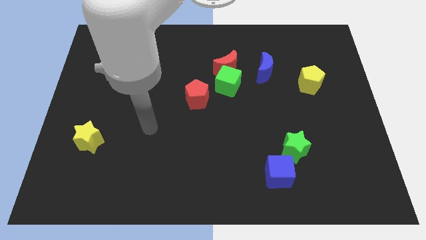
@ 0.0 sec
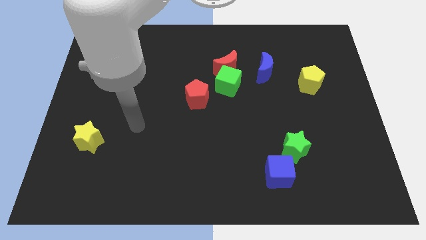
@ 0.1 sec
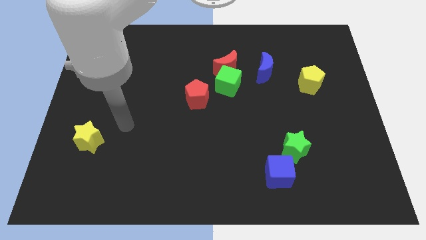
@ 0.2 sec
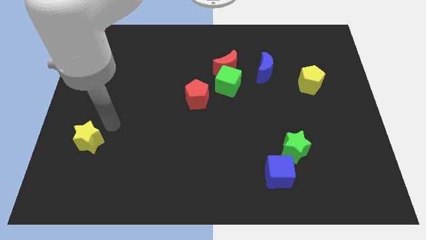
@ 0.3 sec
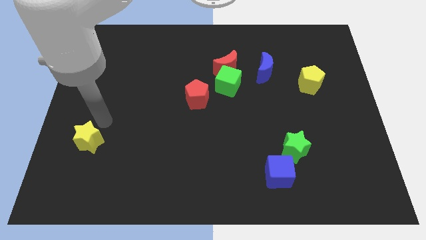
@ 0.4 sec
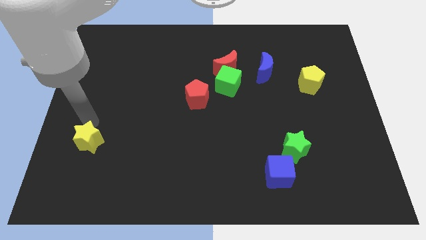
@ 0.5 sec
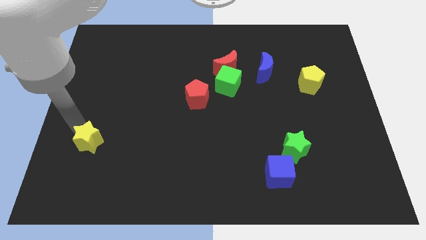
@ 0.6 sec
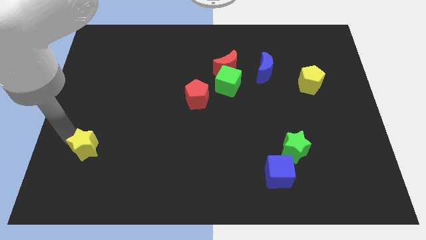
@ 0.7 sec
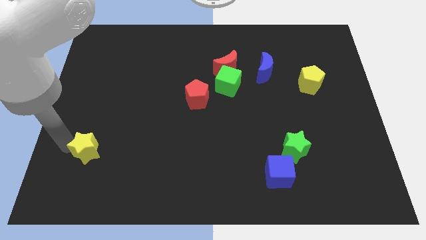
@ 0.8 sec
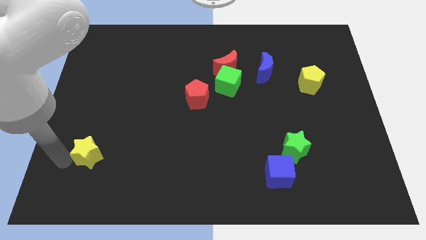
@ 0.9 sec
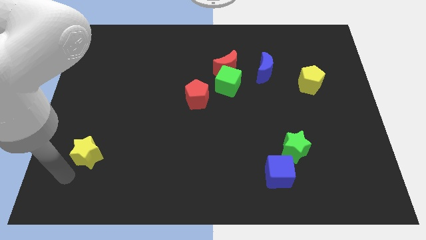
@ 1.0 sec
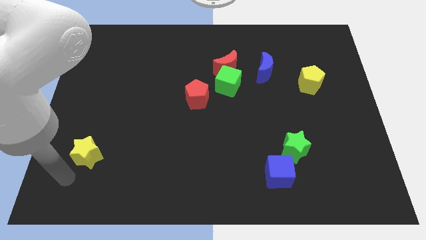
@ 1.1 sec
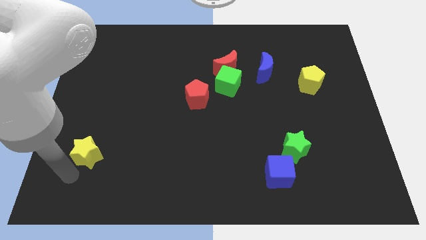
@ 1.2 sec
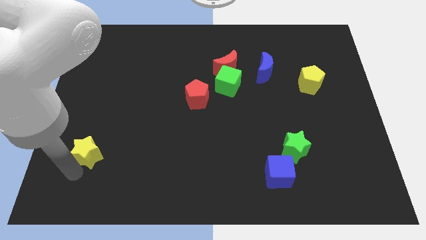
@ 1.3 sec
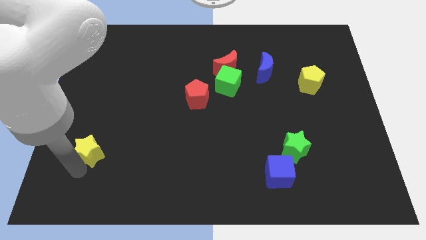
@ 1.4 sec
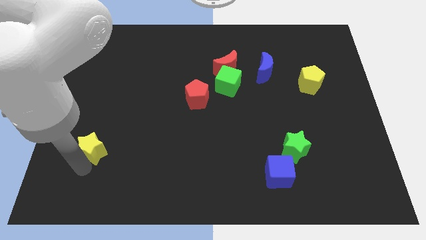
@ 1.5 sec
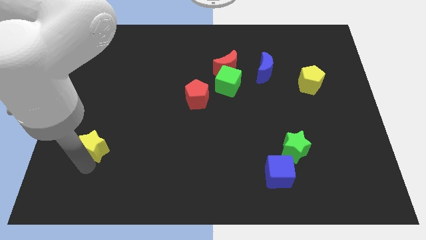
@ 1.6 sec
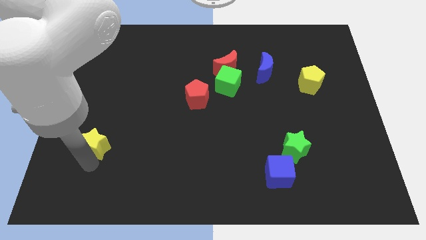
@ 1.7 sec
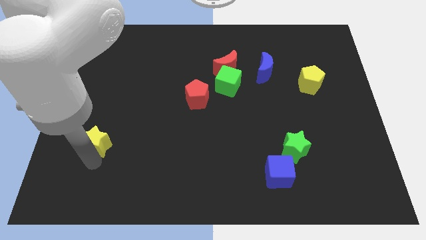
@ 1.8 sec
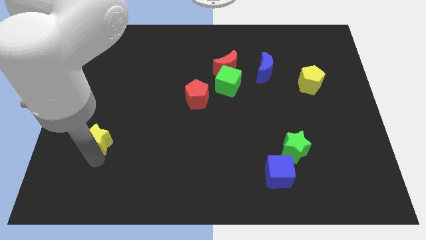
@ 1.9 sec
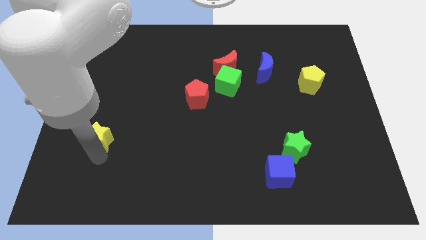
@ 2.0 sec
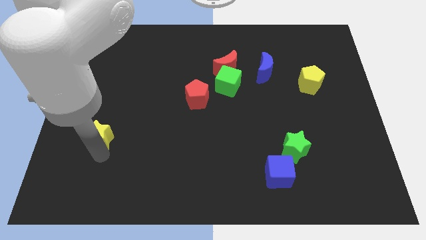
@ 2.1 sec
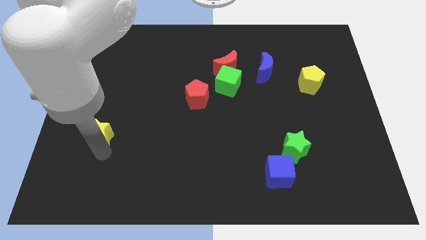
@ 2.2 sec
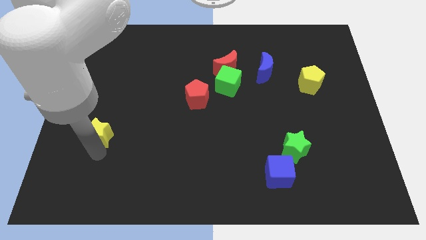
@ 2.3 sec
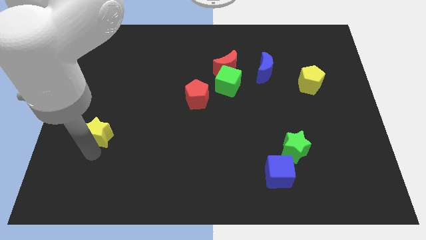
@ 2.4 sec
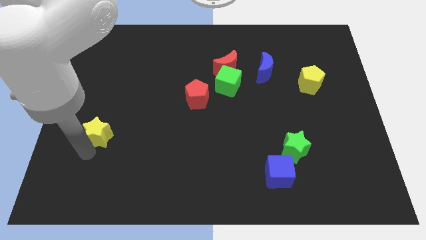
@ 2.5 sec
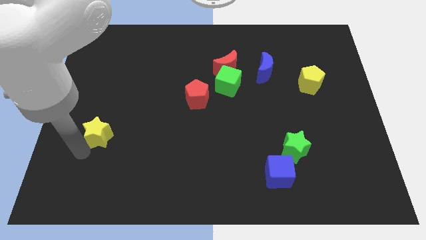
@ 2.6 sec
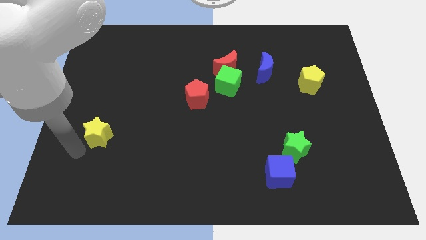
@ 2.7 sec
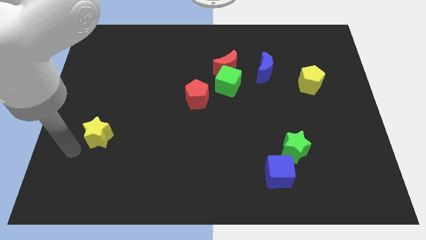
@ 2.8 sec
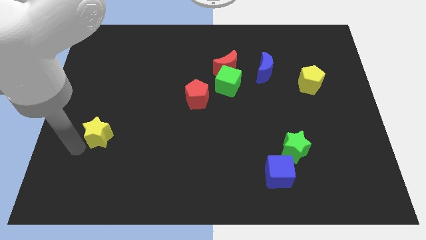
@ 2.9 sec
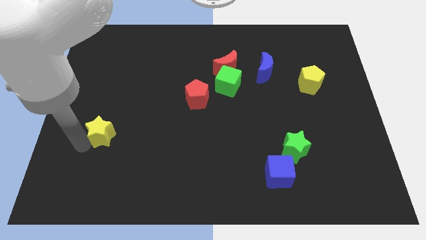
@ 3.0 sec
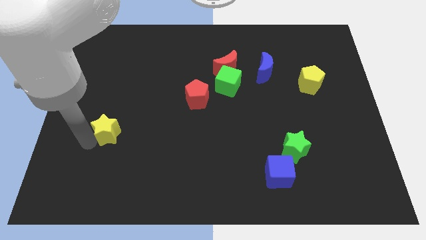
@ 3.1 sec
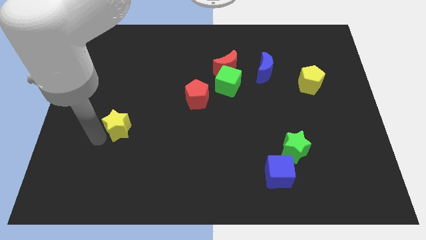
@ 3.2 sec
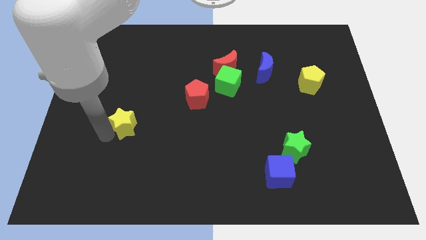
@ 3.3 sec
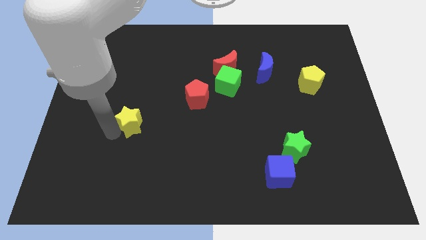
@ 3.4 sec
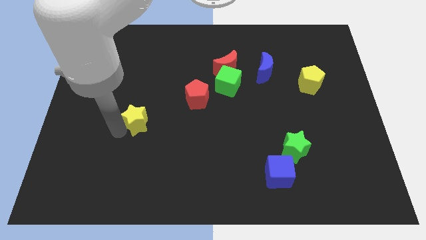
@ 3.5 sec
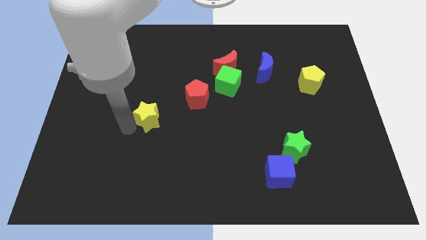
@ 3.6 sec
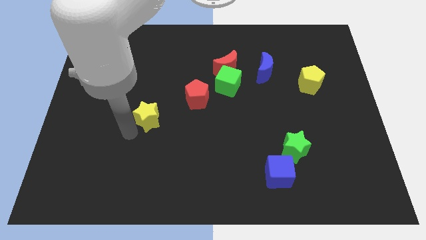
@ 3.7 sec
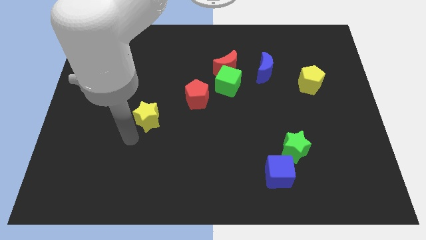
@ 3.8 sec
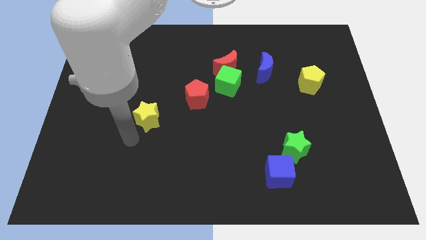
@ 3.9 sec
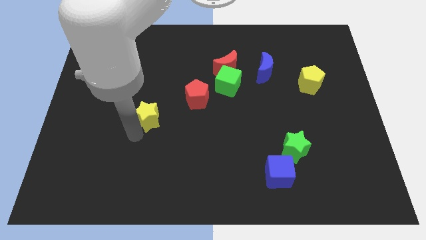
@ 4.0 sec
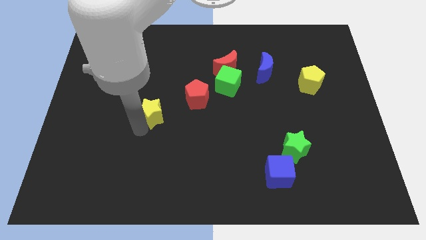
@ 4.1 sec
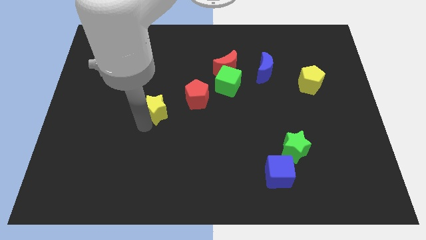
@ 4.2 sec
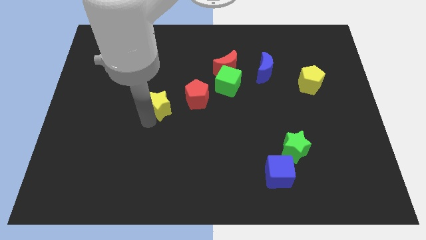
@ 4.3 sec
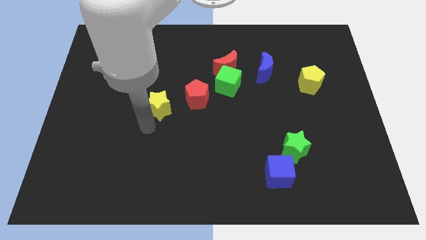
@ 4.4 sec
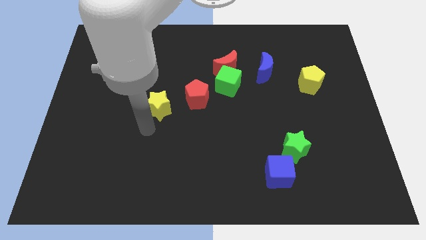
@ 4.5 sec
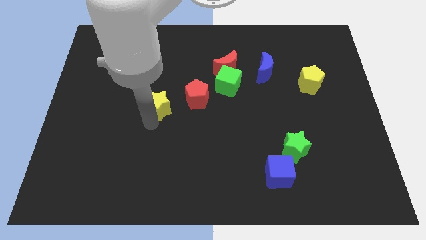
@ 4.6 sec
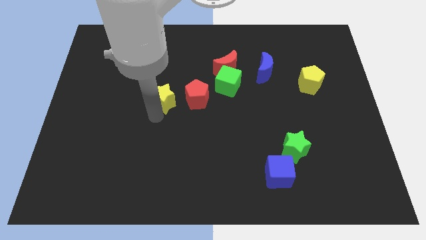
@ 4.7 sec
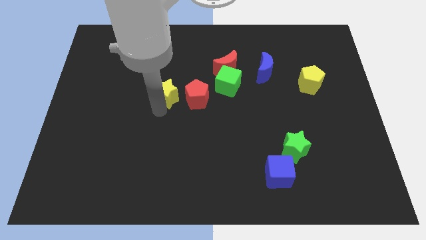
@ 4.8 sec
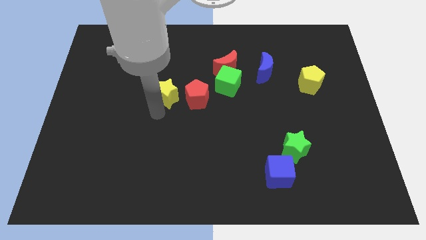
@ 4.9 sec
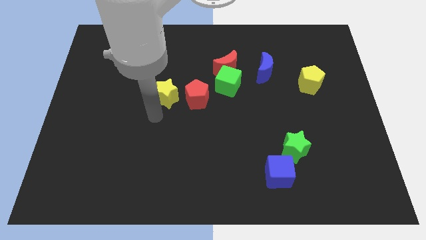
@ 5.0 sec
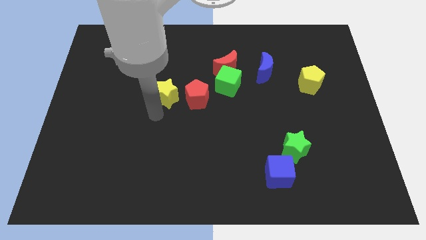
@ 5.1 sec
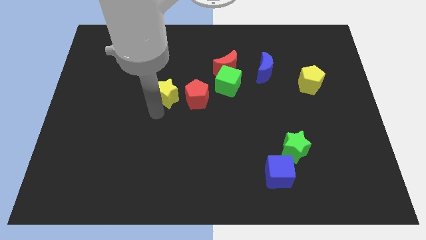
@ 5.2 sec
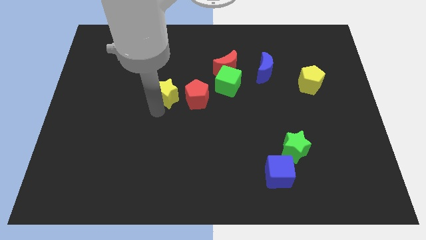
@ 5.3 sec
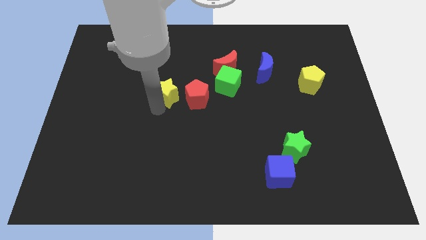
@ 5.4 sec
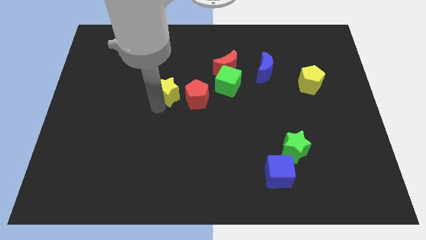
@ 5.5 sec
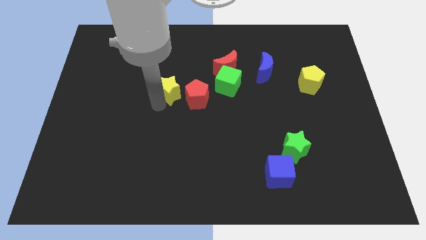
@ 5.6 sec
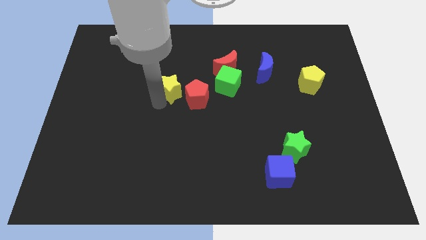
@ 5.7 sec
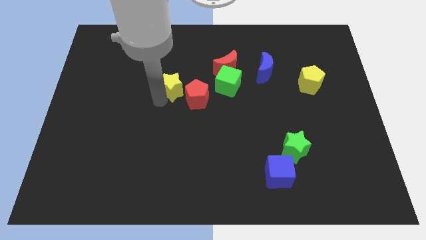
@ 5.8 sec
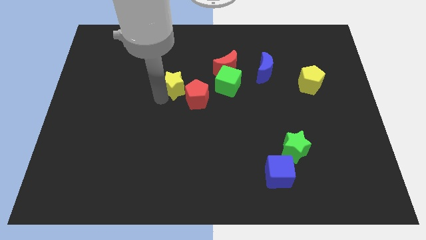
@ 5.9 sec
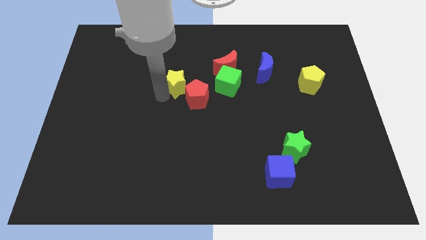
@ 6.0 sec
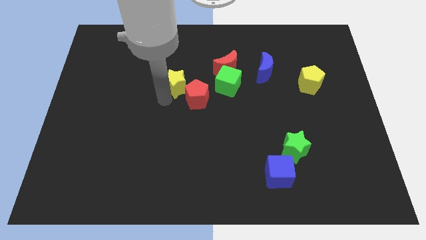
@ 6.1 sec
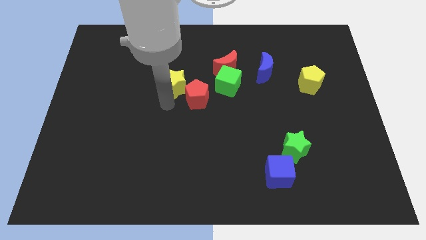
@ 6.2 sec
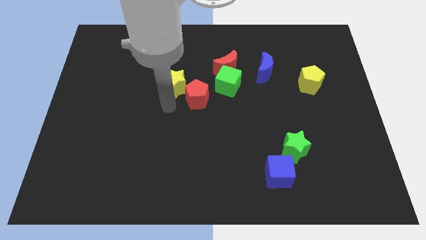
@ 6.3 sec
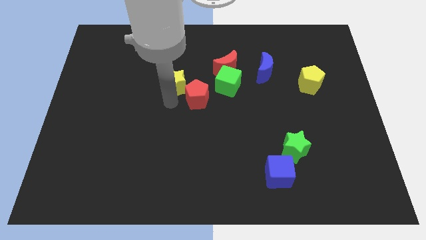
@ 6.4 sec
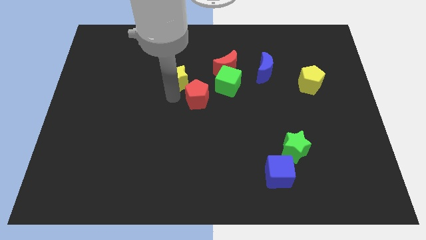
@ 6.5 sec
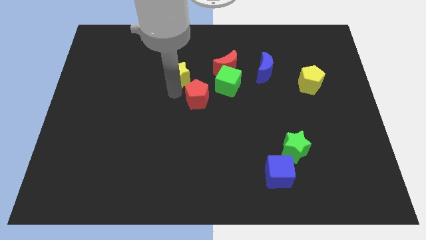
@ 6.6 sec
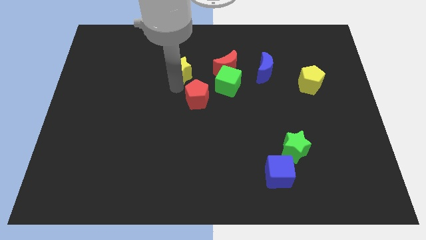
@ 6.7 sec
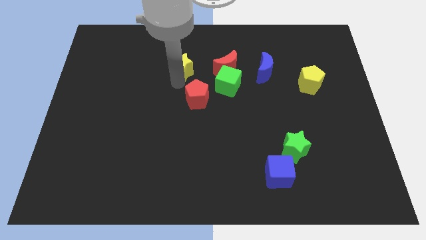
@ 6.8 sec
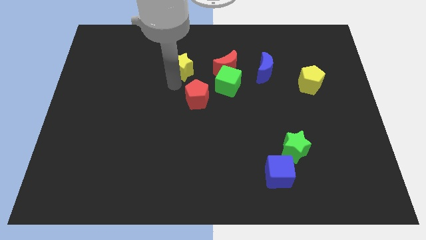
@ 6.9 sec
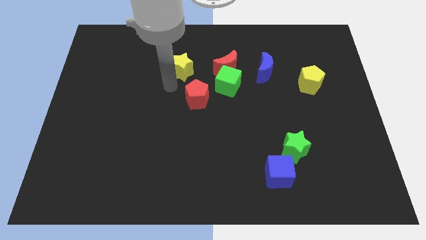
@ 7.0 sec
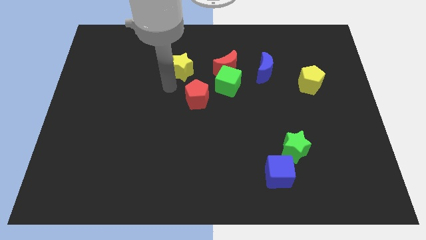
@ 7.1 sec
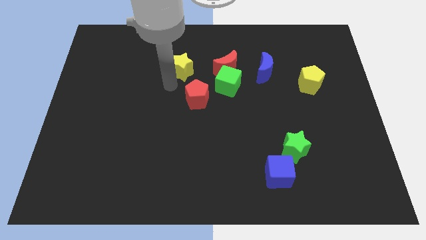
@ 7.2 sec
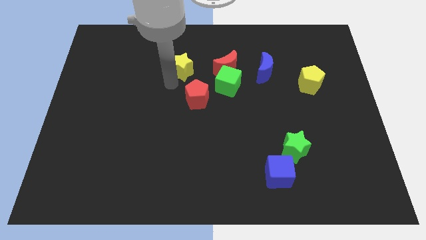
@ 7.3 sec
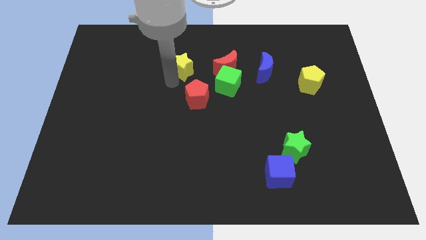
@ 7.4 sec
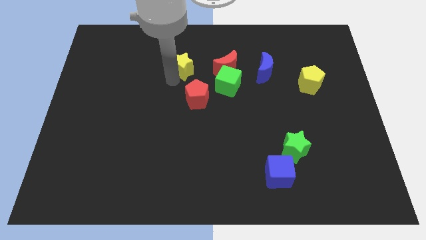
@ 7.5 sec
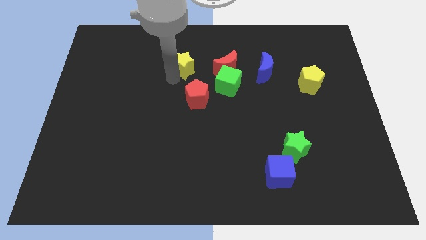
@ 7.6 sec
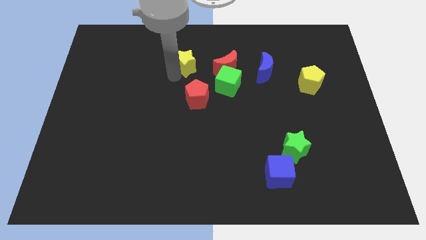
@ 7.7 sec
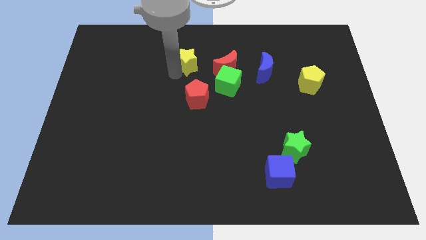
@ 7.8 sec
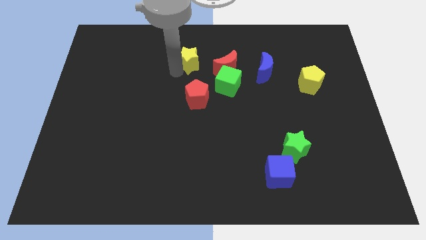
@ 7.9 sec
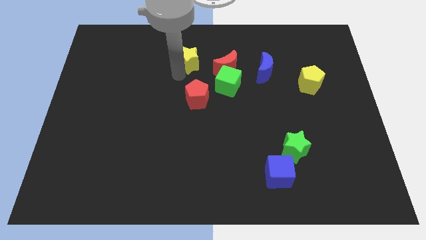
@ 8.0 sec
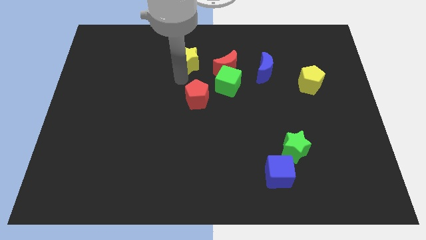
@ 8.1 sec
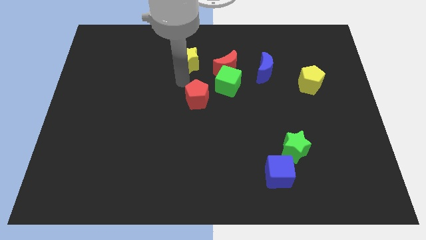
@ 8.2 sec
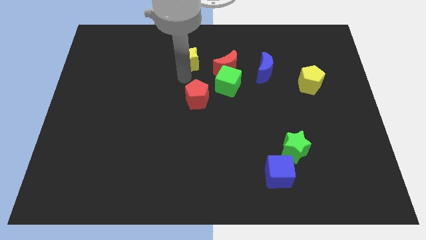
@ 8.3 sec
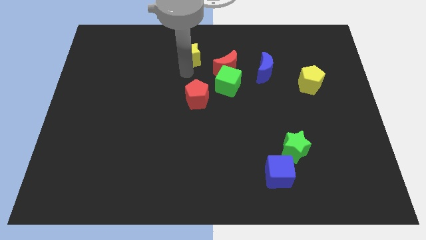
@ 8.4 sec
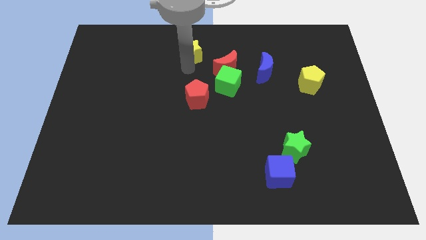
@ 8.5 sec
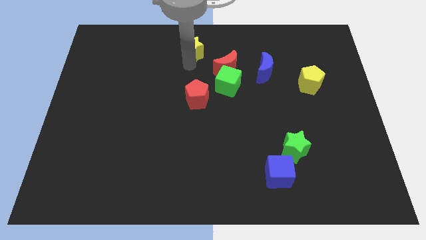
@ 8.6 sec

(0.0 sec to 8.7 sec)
slide the yellow star to the top side
